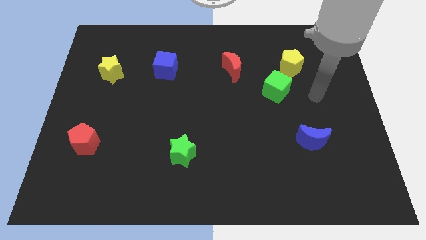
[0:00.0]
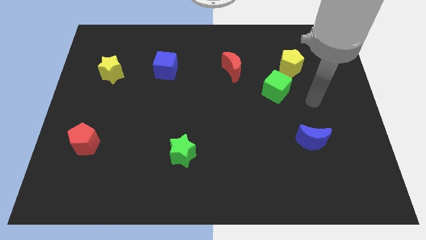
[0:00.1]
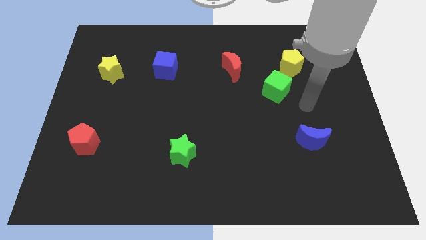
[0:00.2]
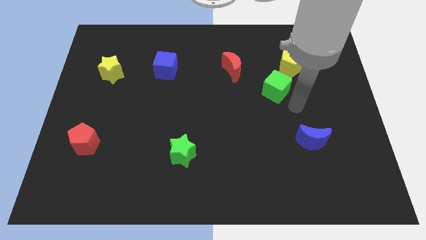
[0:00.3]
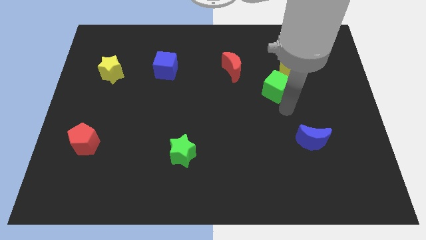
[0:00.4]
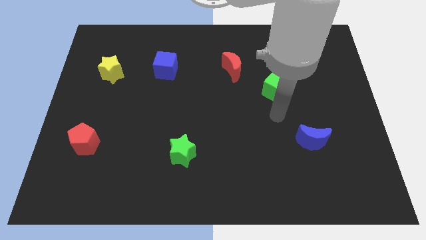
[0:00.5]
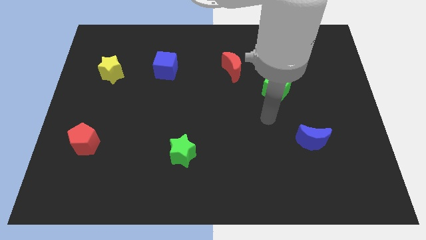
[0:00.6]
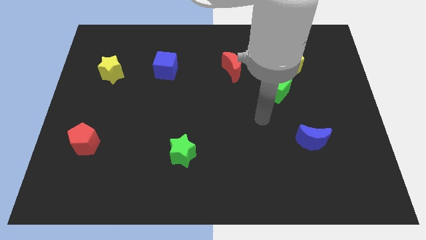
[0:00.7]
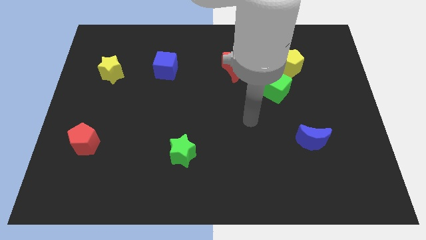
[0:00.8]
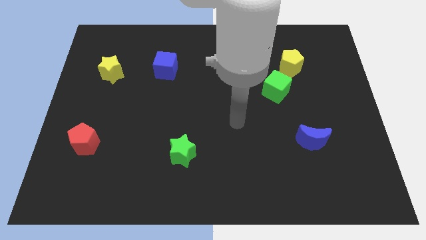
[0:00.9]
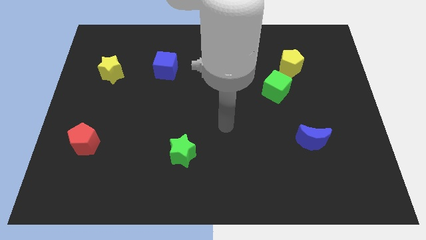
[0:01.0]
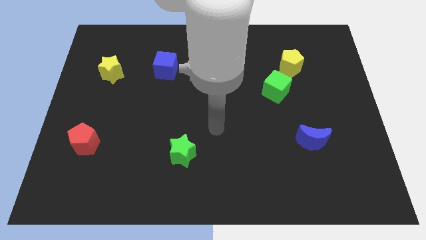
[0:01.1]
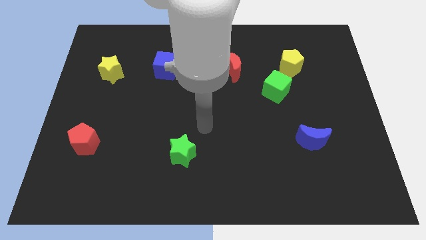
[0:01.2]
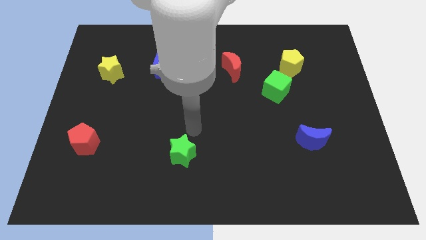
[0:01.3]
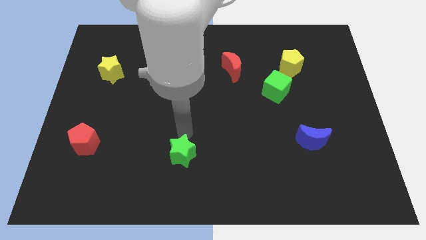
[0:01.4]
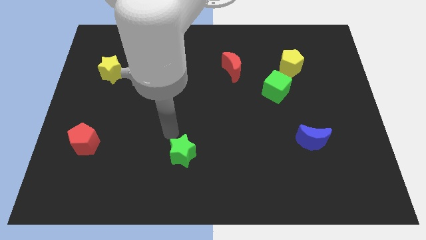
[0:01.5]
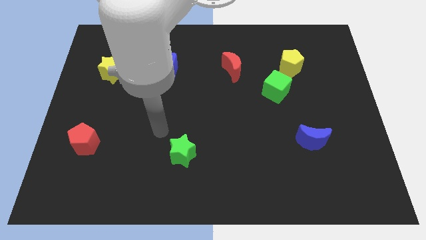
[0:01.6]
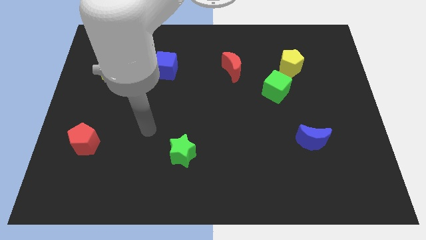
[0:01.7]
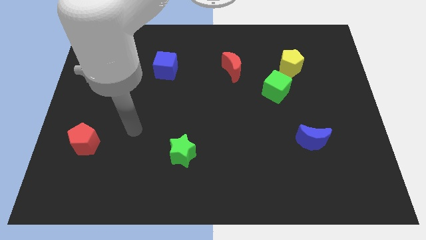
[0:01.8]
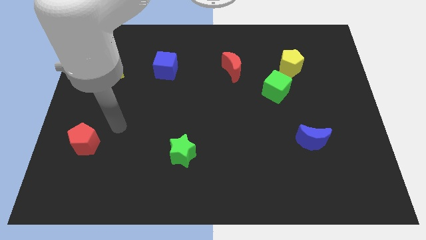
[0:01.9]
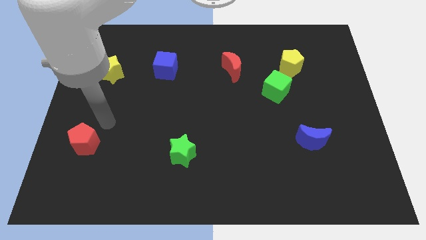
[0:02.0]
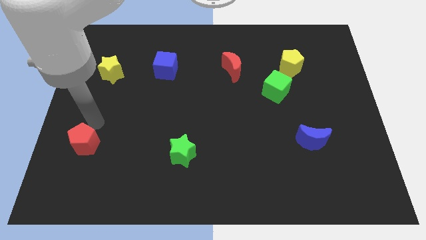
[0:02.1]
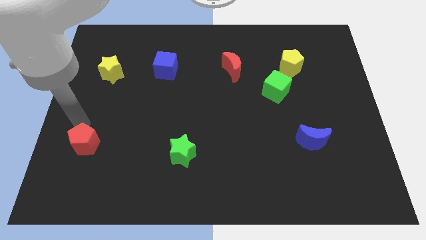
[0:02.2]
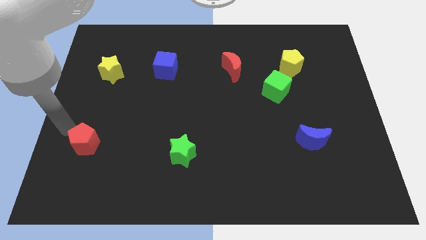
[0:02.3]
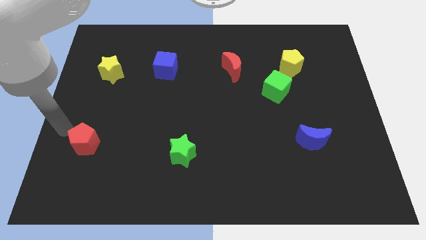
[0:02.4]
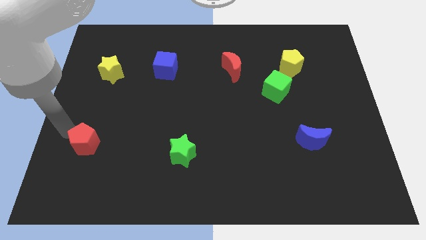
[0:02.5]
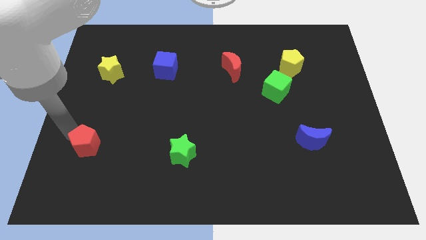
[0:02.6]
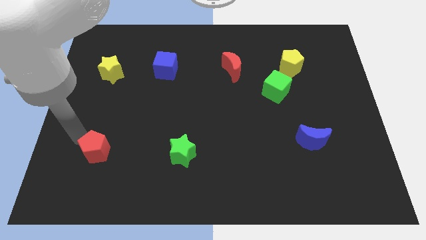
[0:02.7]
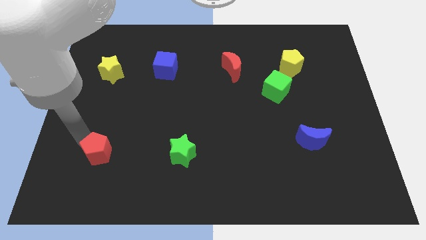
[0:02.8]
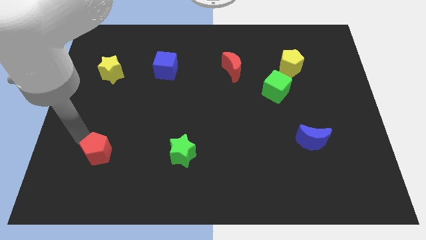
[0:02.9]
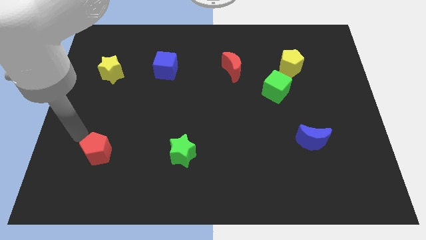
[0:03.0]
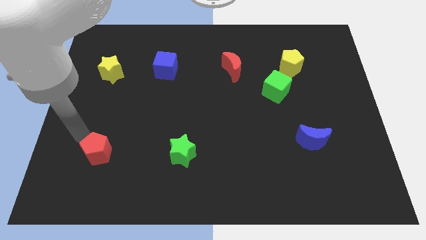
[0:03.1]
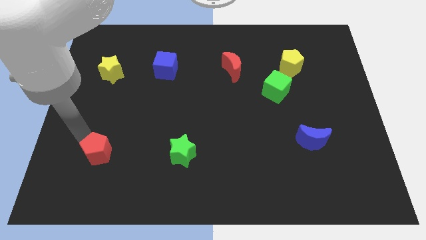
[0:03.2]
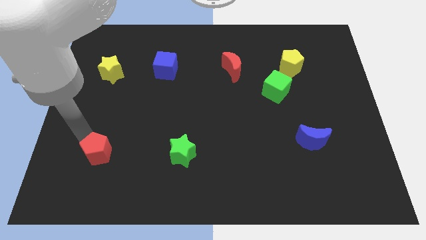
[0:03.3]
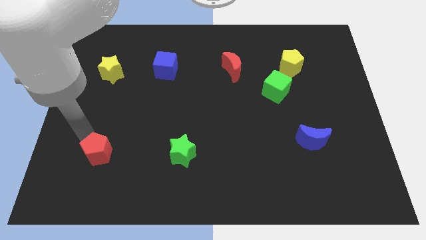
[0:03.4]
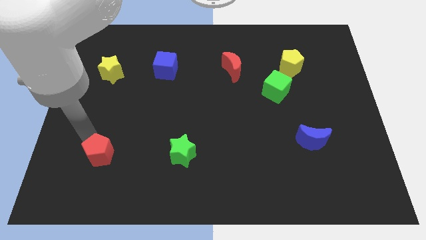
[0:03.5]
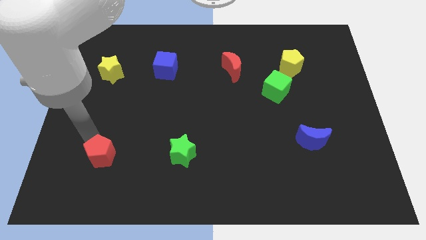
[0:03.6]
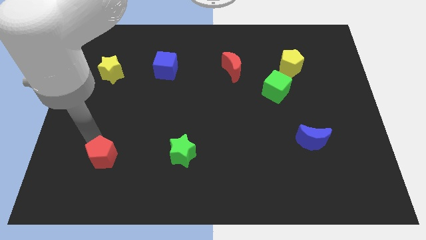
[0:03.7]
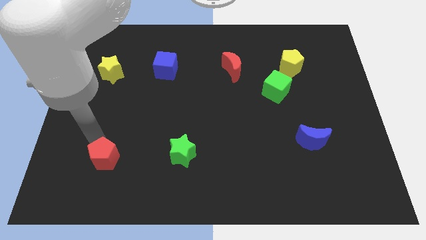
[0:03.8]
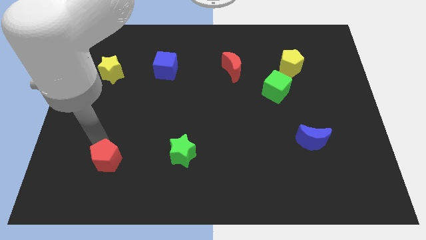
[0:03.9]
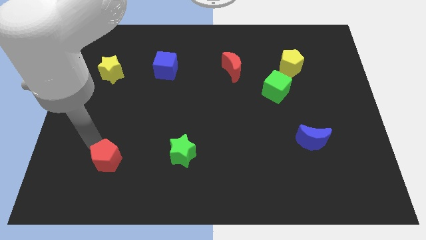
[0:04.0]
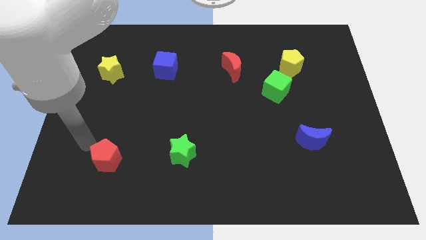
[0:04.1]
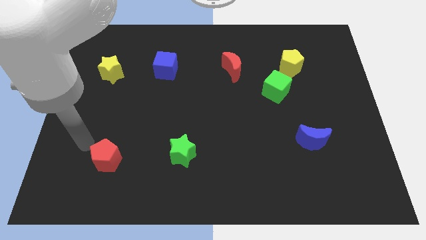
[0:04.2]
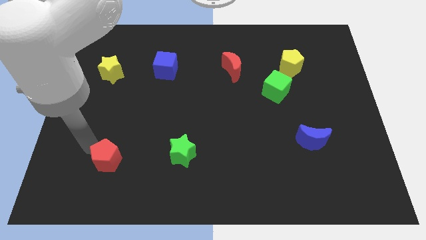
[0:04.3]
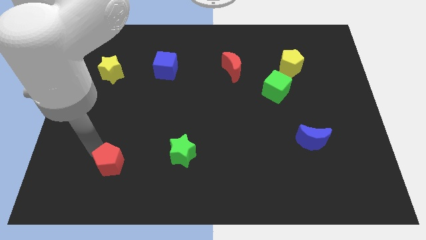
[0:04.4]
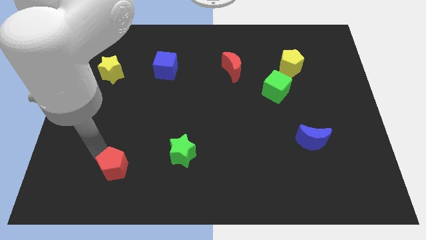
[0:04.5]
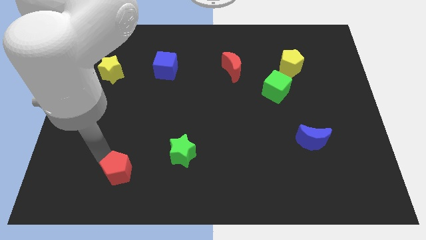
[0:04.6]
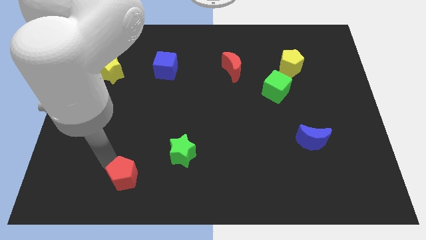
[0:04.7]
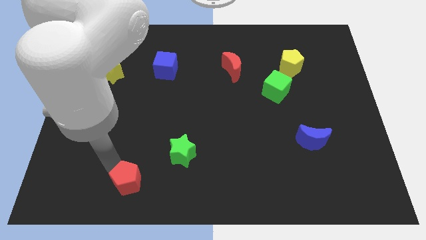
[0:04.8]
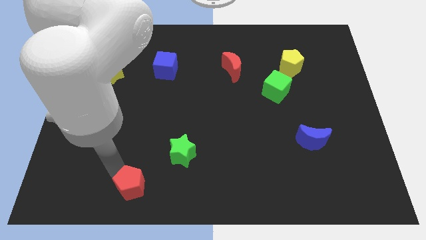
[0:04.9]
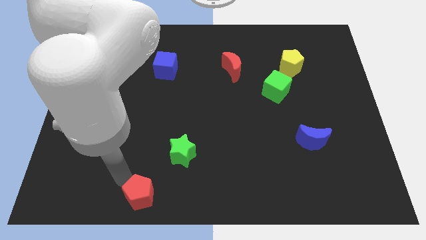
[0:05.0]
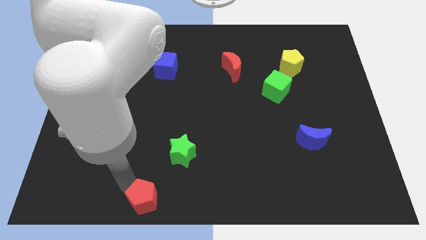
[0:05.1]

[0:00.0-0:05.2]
put the red pentagon to the bottom side
